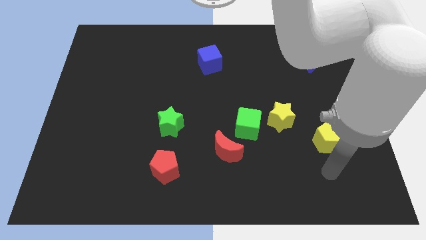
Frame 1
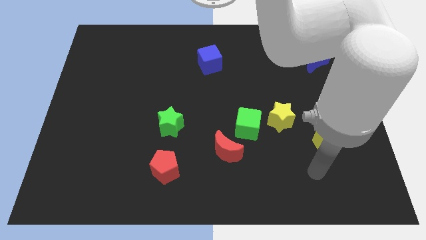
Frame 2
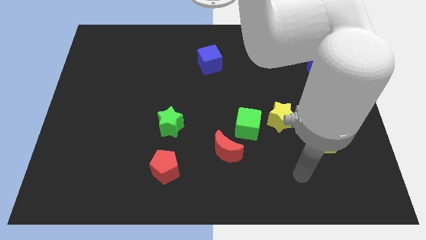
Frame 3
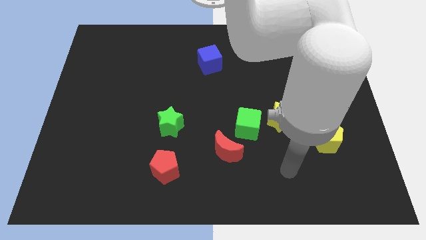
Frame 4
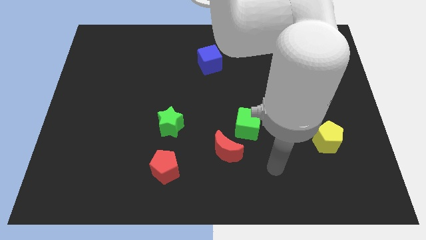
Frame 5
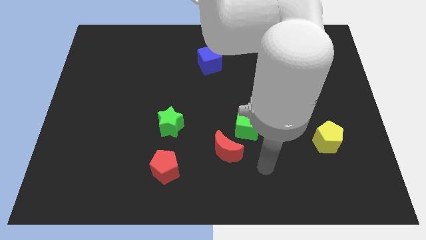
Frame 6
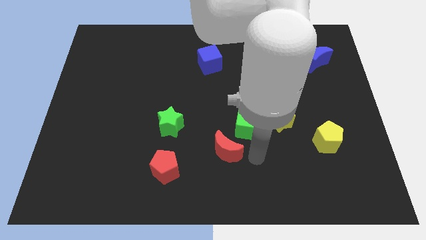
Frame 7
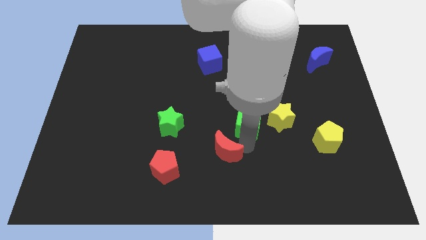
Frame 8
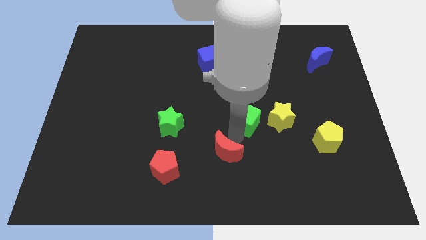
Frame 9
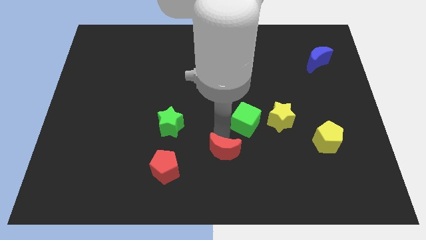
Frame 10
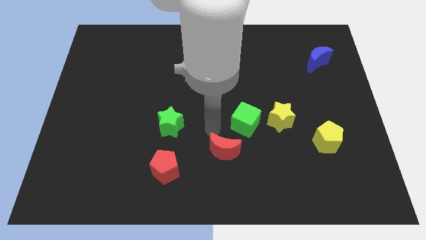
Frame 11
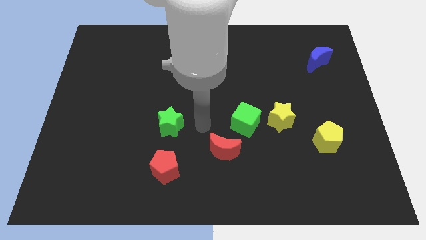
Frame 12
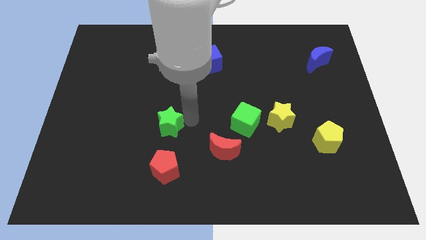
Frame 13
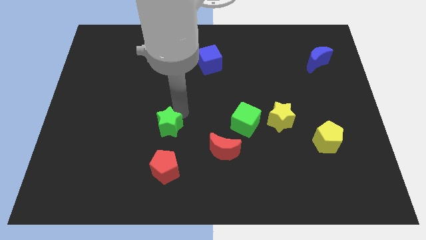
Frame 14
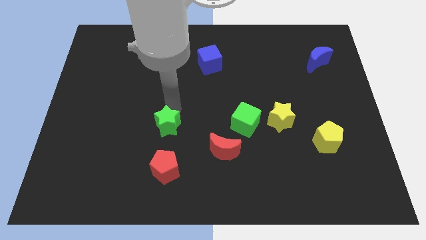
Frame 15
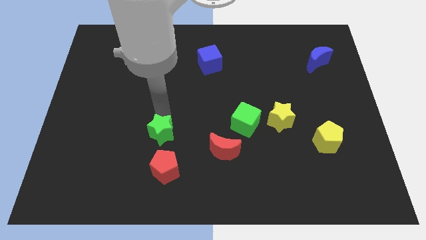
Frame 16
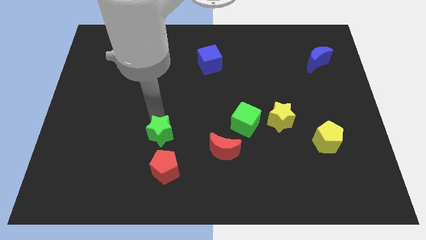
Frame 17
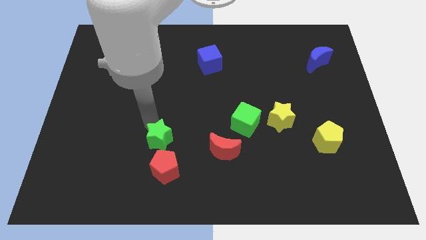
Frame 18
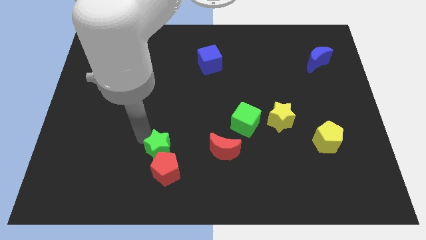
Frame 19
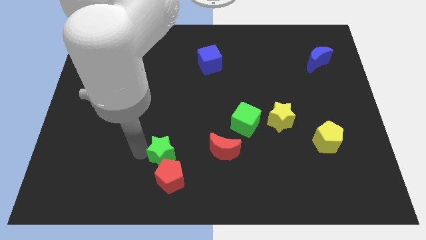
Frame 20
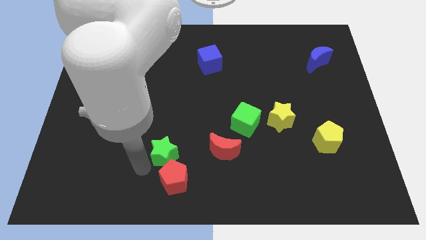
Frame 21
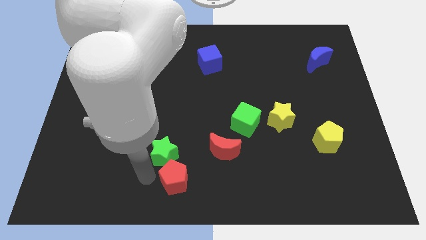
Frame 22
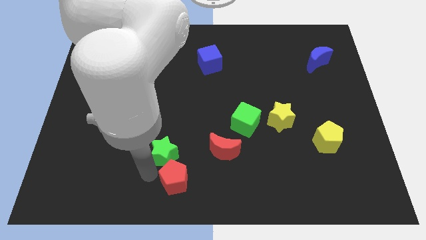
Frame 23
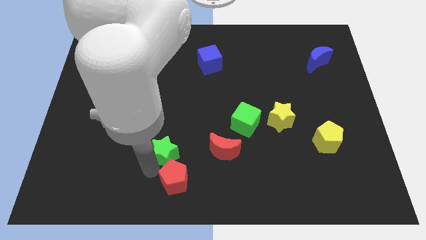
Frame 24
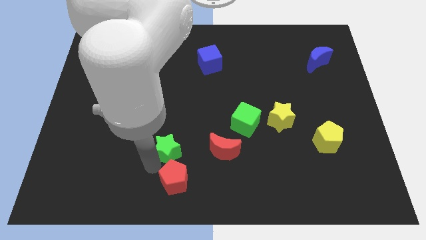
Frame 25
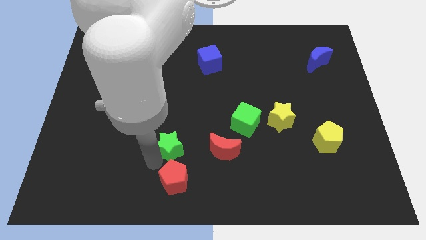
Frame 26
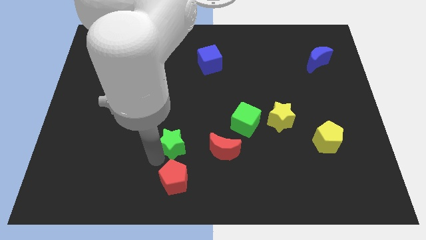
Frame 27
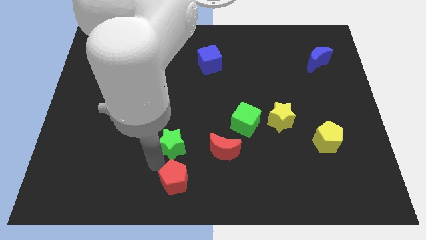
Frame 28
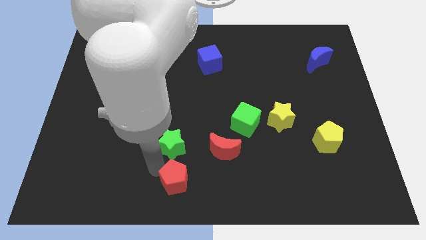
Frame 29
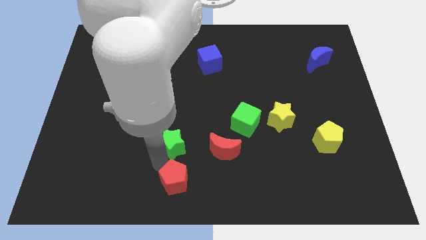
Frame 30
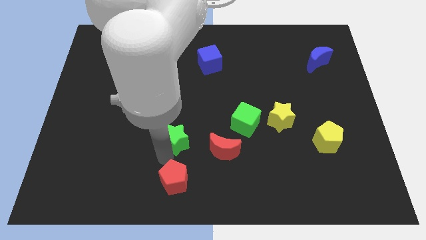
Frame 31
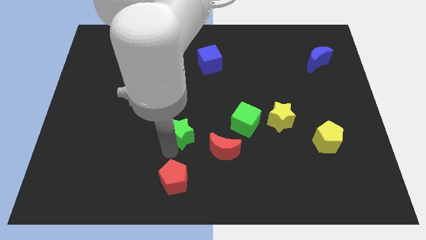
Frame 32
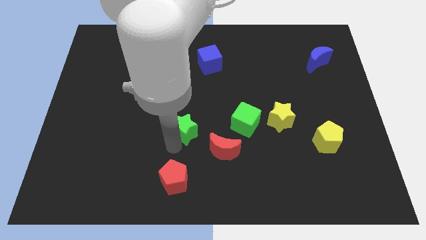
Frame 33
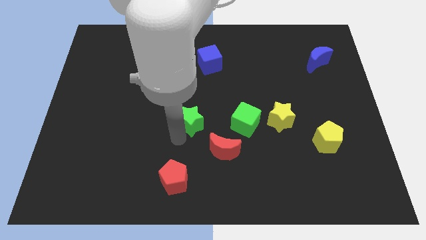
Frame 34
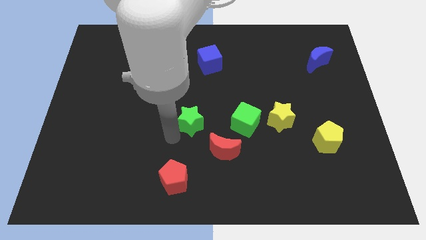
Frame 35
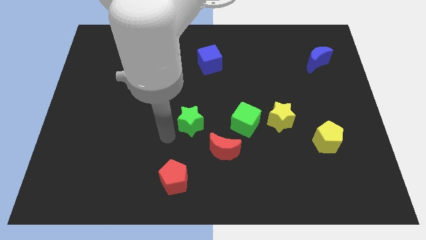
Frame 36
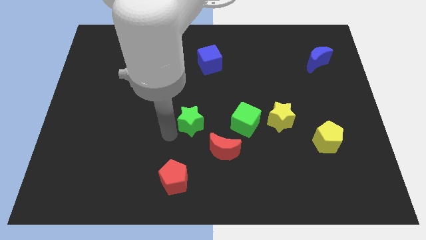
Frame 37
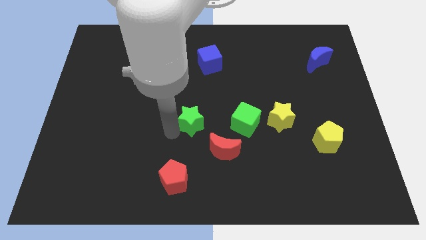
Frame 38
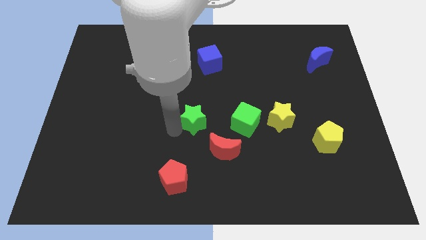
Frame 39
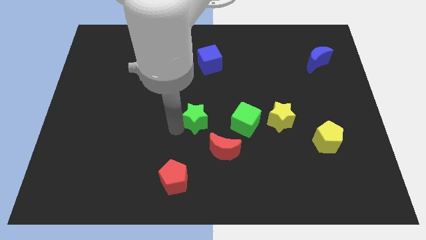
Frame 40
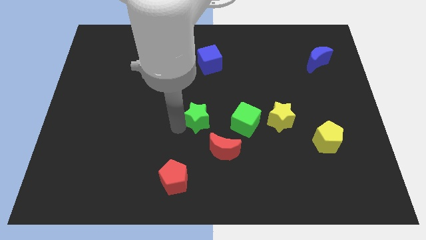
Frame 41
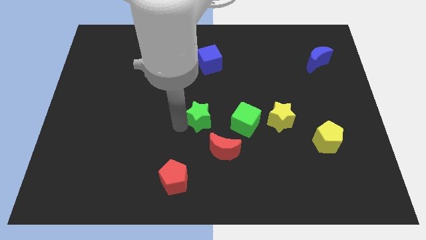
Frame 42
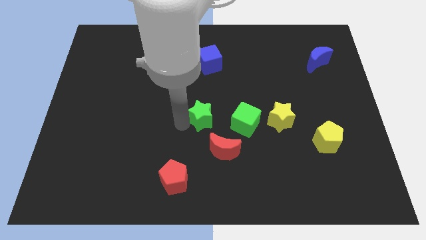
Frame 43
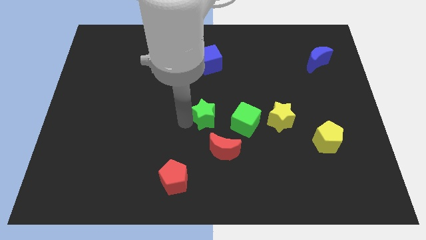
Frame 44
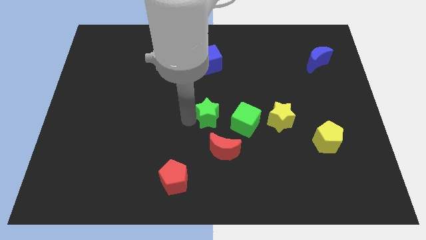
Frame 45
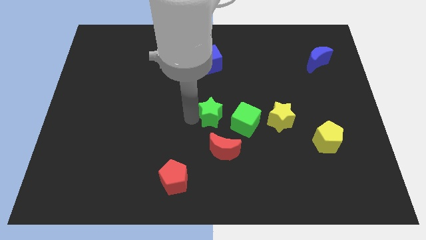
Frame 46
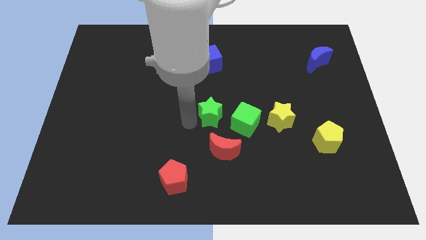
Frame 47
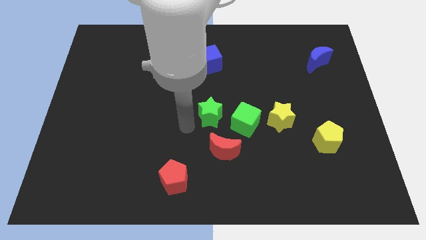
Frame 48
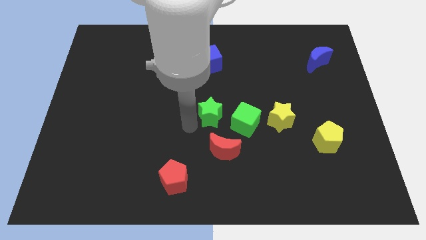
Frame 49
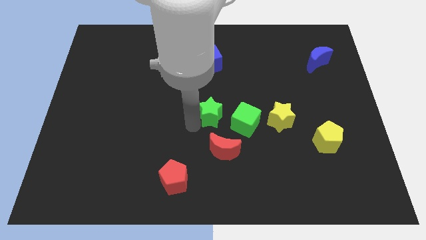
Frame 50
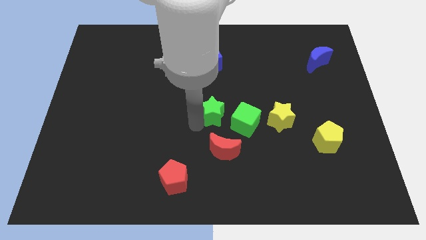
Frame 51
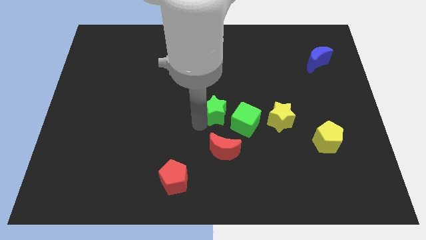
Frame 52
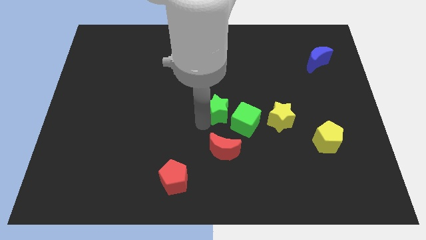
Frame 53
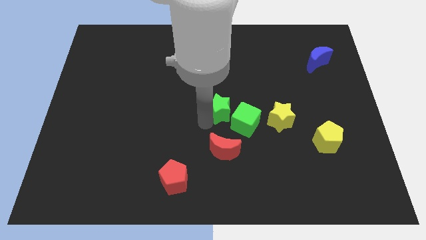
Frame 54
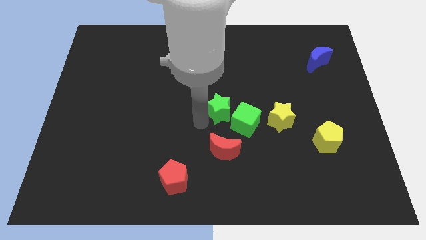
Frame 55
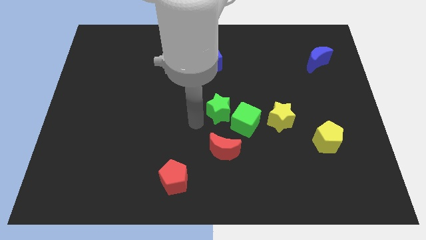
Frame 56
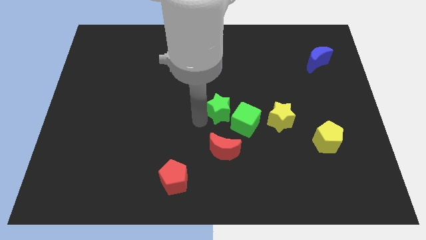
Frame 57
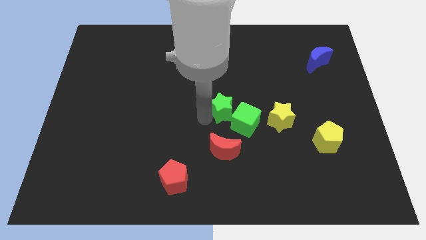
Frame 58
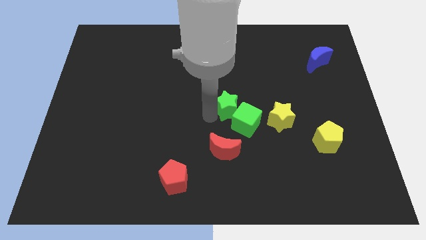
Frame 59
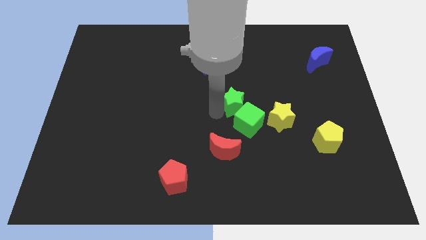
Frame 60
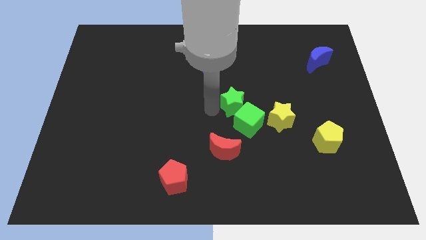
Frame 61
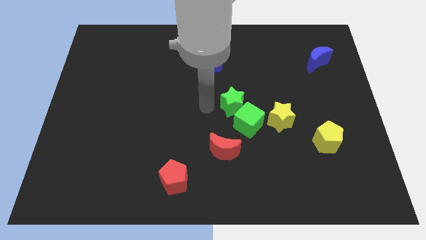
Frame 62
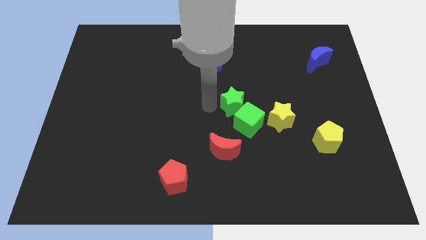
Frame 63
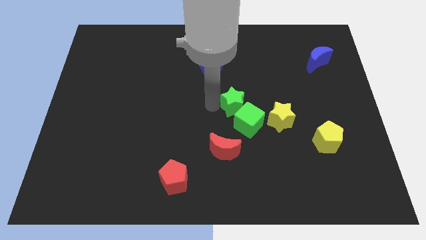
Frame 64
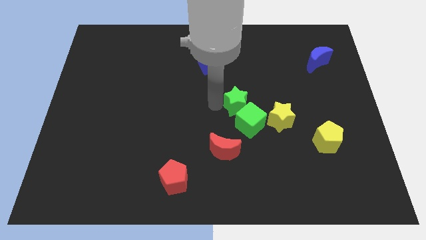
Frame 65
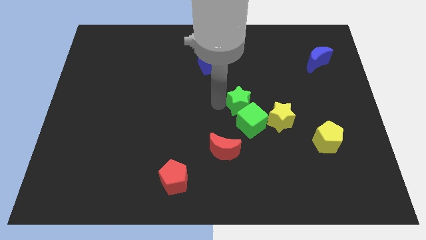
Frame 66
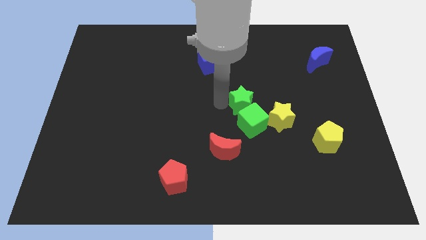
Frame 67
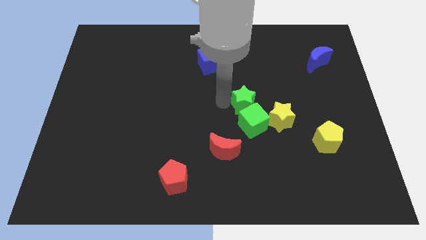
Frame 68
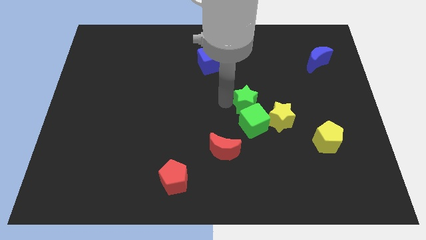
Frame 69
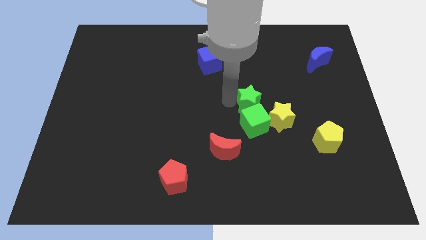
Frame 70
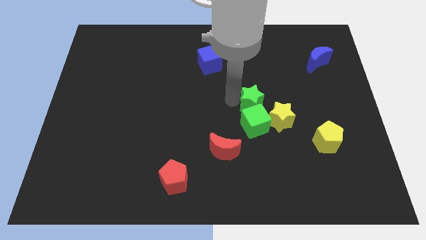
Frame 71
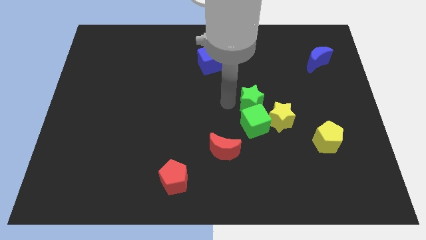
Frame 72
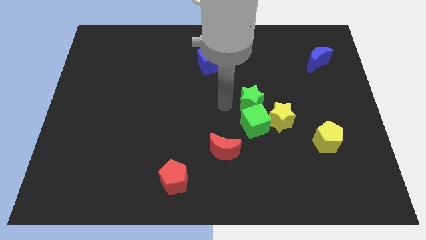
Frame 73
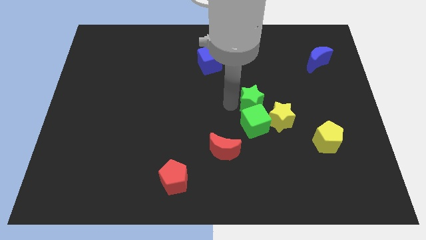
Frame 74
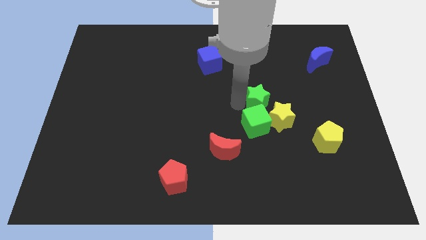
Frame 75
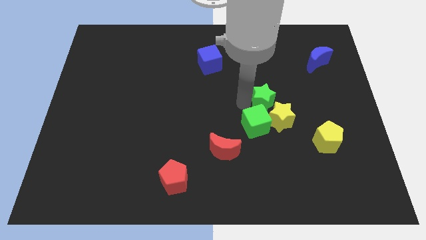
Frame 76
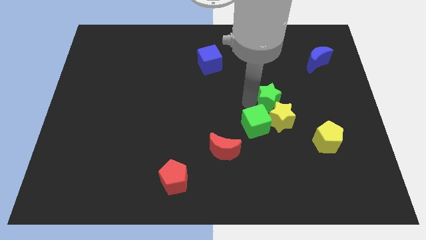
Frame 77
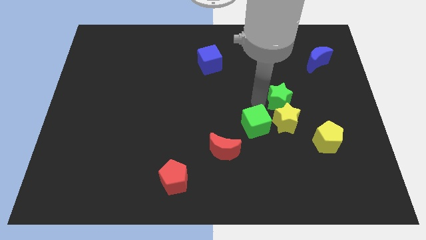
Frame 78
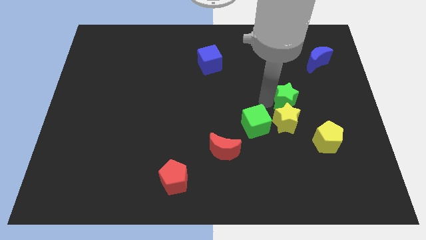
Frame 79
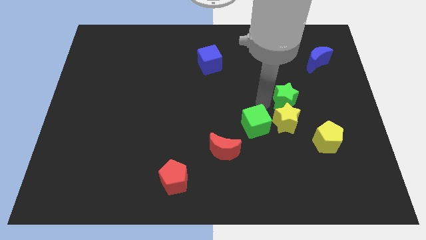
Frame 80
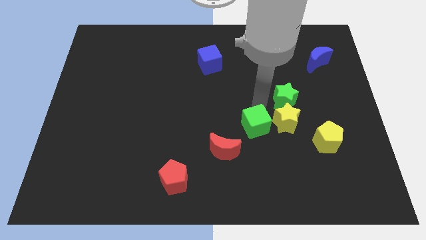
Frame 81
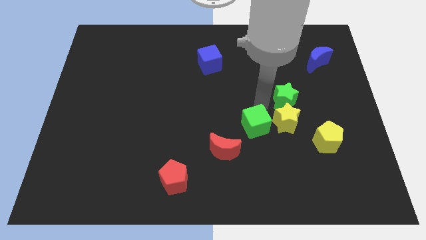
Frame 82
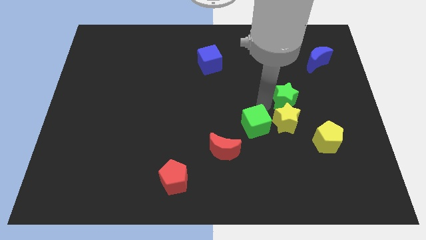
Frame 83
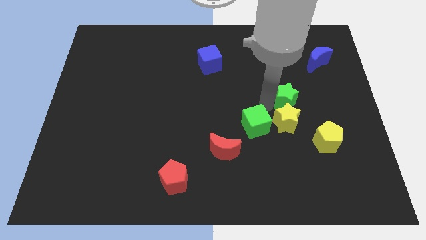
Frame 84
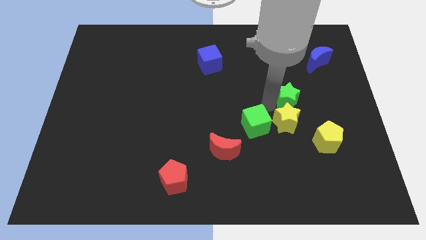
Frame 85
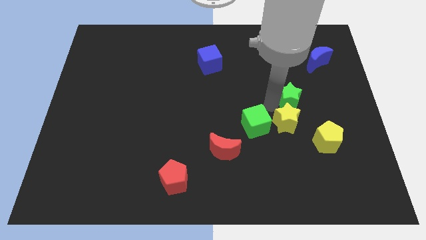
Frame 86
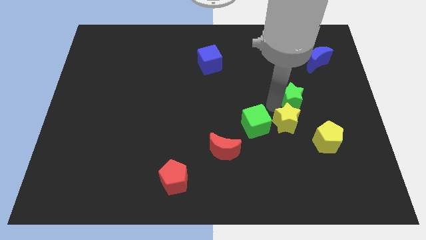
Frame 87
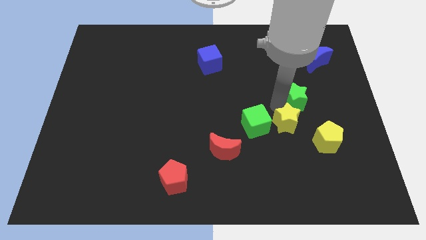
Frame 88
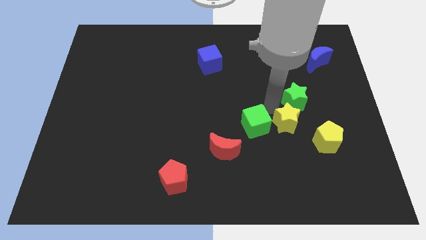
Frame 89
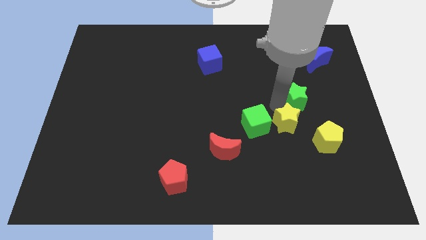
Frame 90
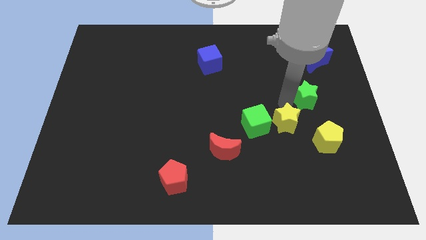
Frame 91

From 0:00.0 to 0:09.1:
put the green star below the blue moon
